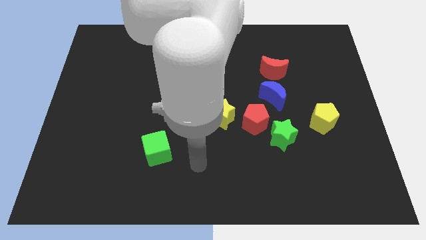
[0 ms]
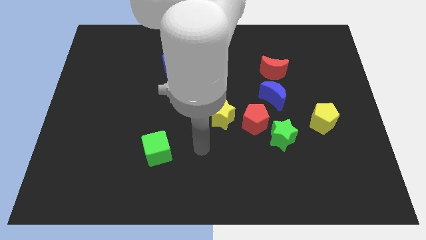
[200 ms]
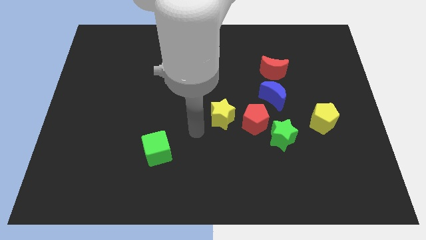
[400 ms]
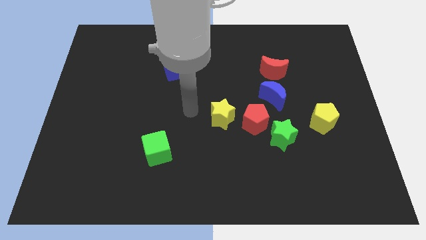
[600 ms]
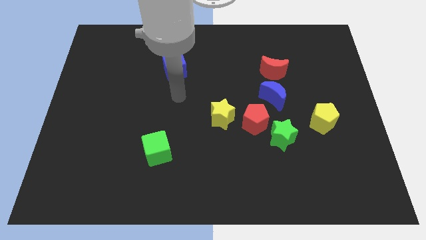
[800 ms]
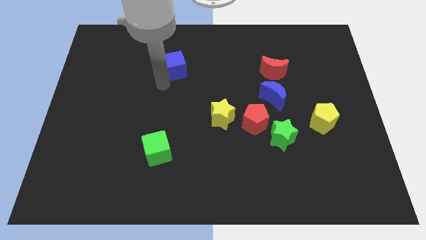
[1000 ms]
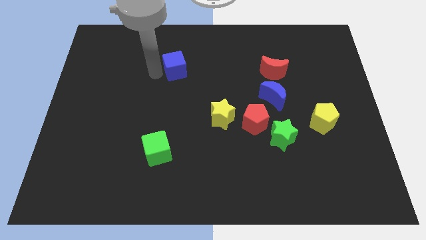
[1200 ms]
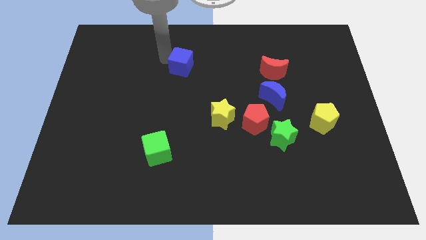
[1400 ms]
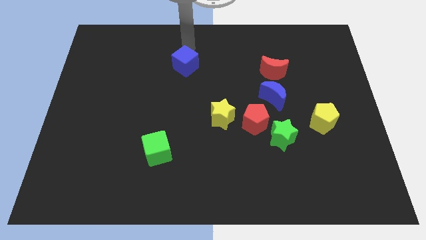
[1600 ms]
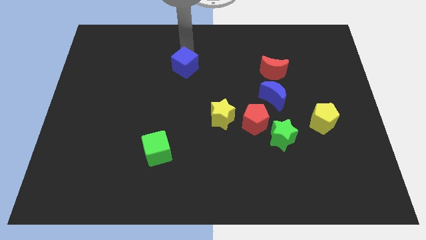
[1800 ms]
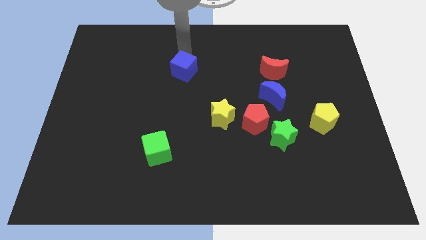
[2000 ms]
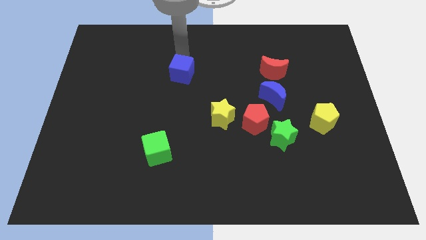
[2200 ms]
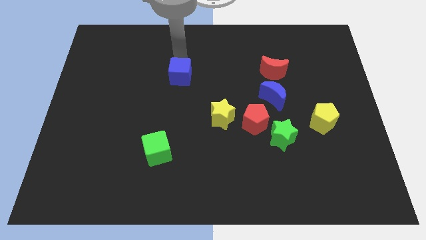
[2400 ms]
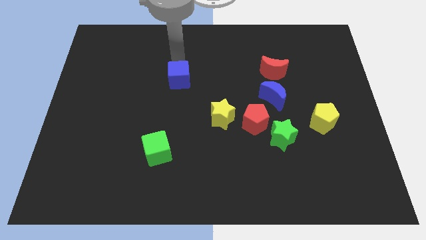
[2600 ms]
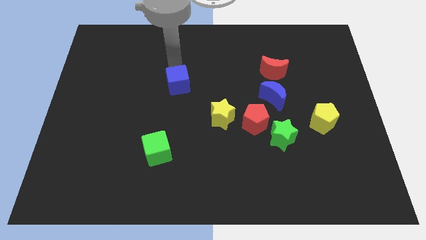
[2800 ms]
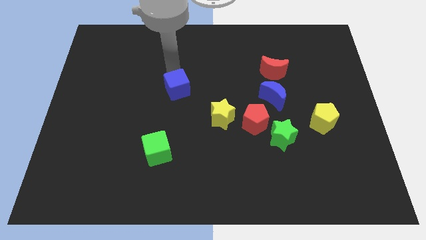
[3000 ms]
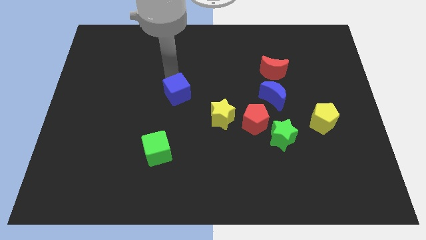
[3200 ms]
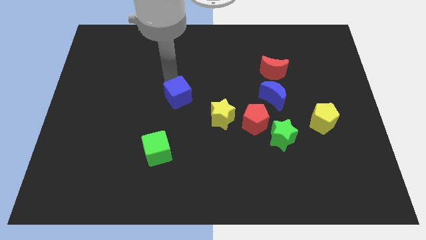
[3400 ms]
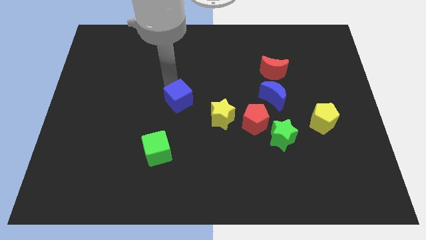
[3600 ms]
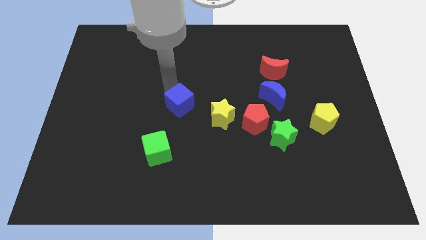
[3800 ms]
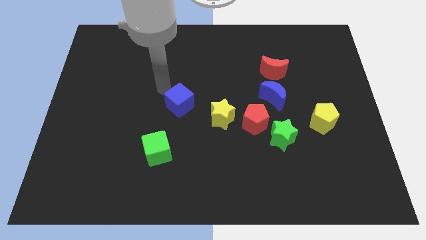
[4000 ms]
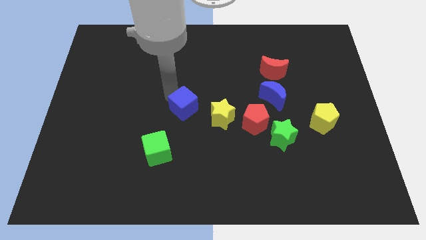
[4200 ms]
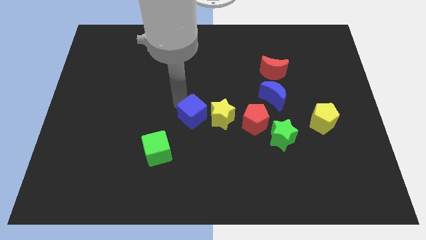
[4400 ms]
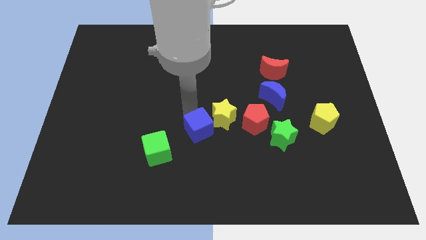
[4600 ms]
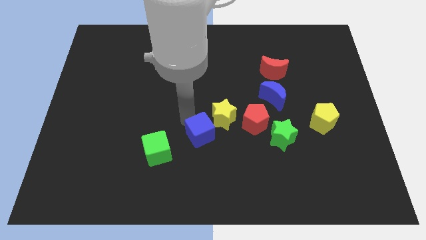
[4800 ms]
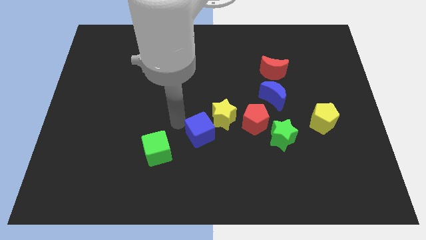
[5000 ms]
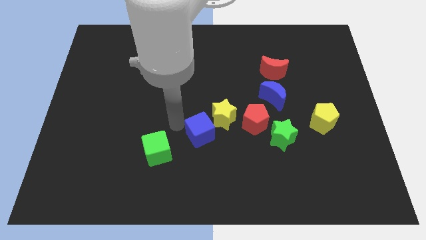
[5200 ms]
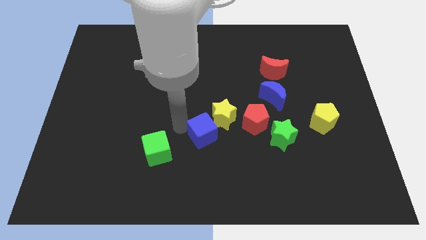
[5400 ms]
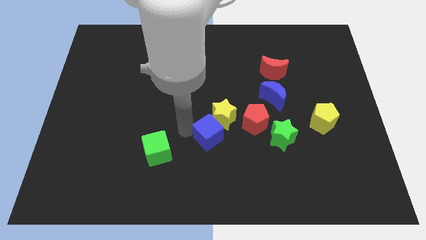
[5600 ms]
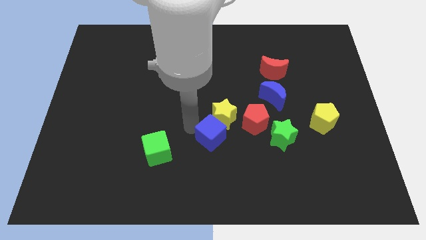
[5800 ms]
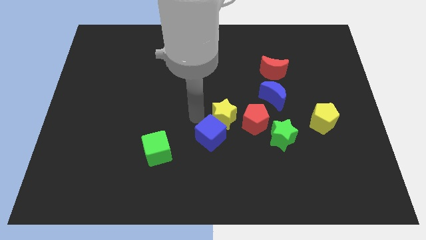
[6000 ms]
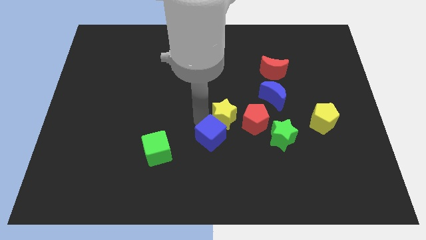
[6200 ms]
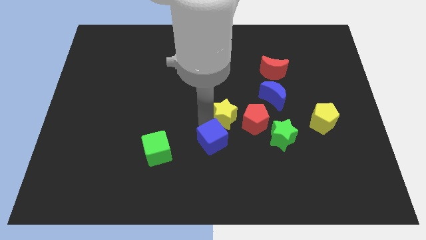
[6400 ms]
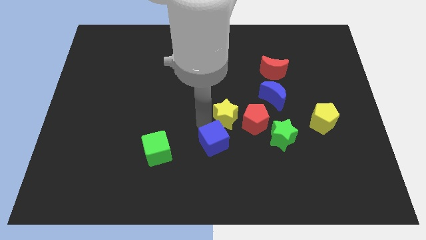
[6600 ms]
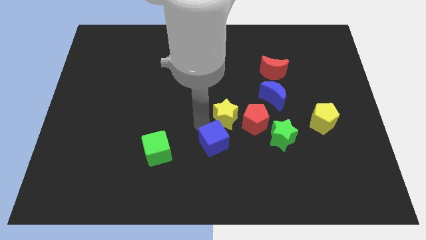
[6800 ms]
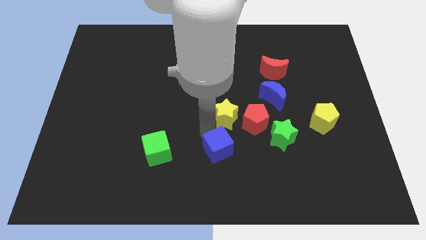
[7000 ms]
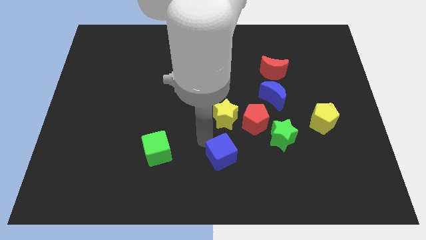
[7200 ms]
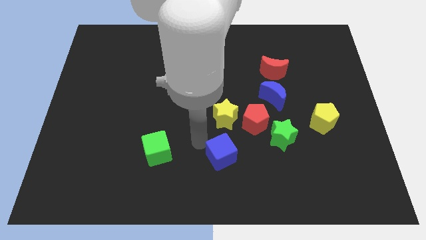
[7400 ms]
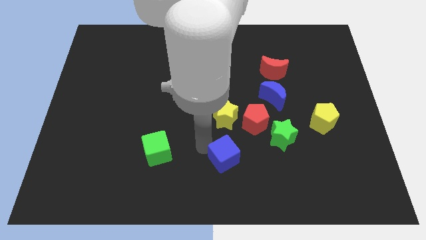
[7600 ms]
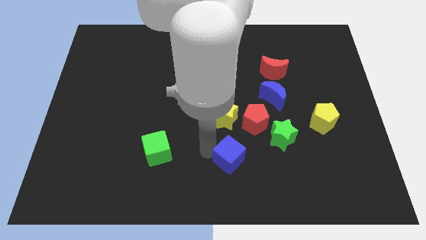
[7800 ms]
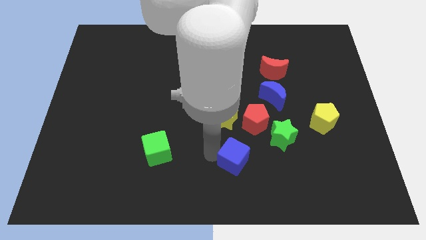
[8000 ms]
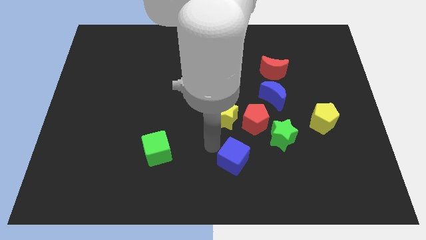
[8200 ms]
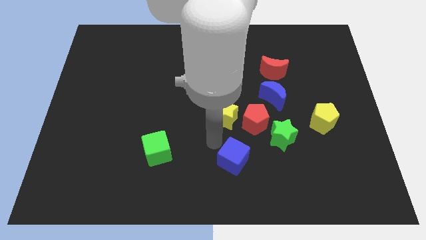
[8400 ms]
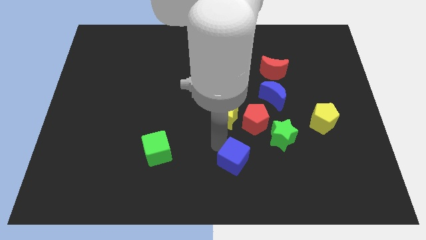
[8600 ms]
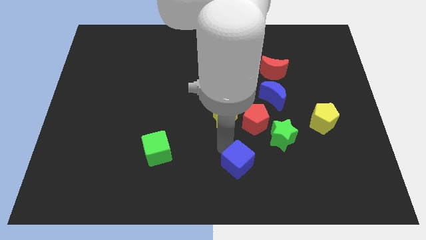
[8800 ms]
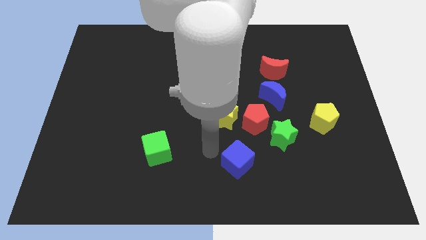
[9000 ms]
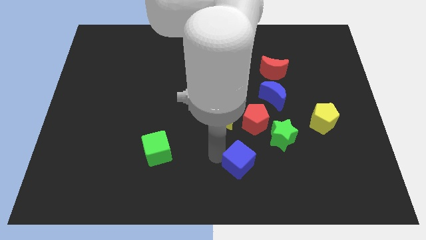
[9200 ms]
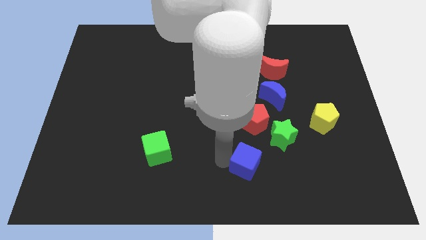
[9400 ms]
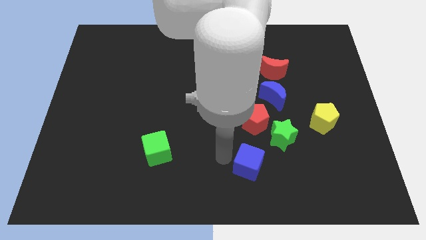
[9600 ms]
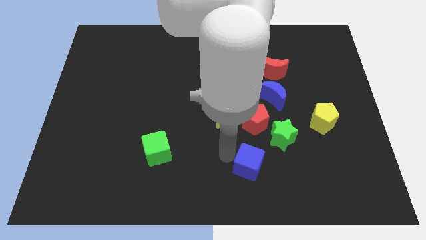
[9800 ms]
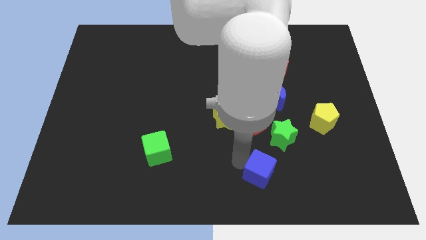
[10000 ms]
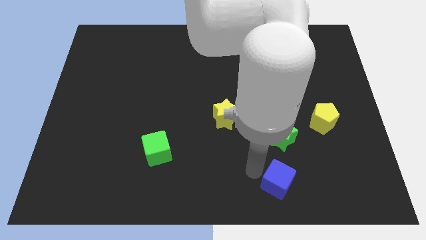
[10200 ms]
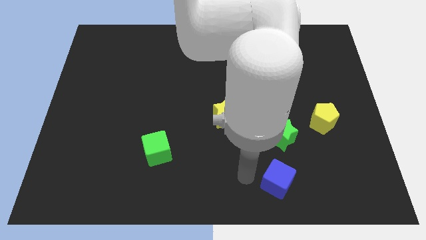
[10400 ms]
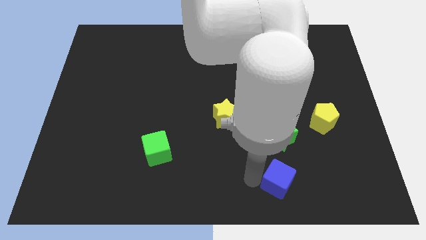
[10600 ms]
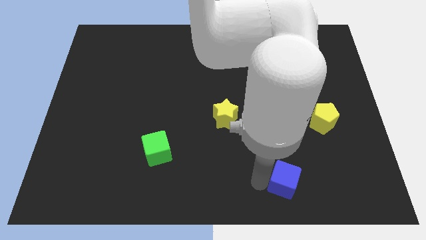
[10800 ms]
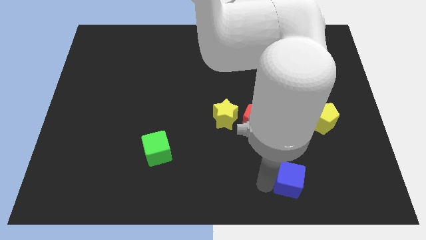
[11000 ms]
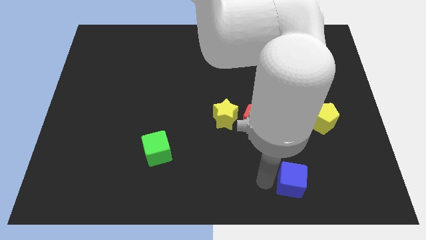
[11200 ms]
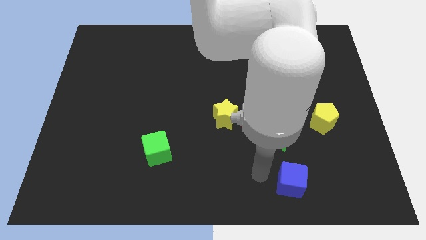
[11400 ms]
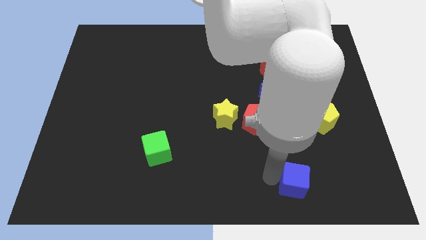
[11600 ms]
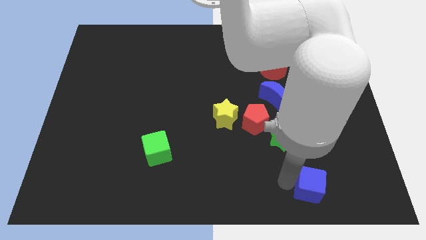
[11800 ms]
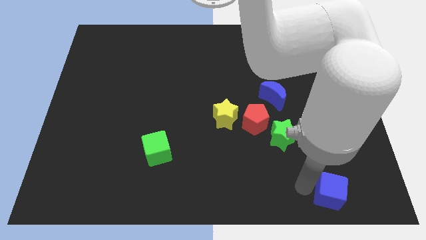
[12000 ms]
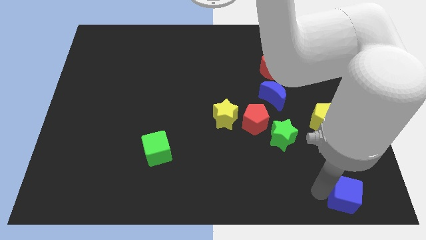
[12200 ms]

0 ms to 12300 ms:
put the blue cube to the bottom right
